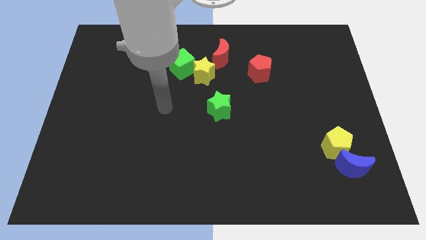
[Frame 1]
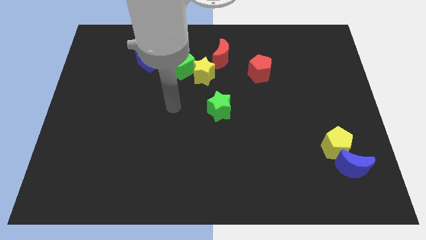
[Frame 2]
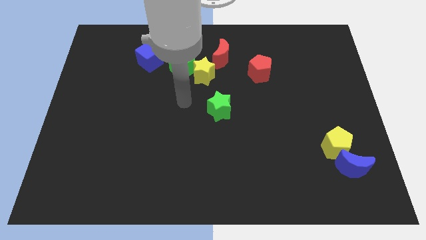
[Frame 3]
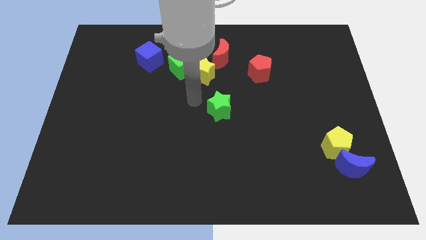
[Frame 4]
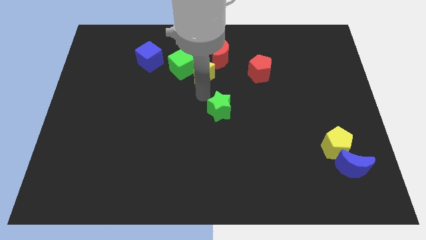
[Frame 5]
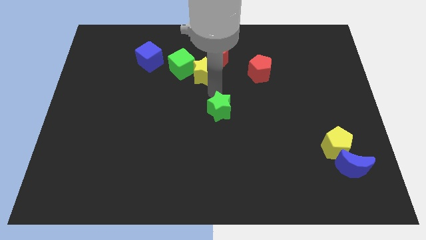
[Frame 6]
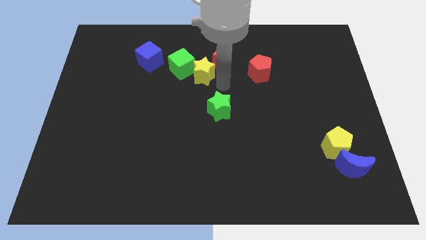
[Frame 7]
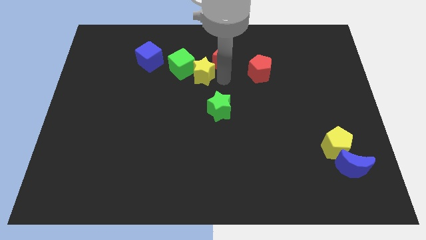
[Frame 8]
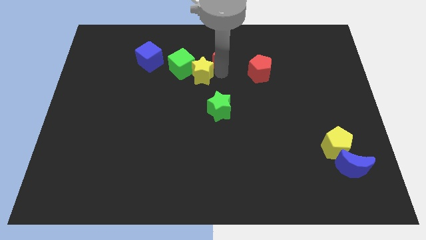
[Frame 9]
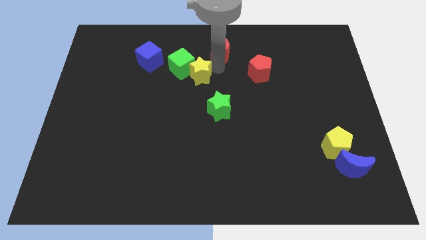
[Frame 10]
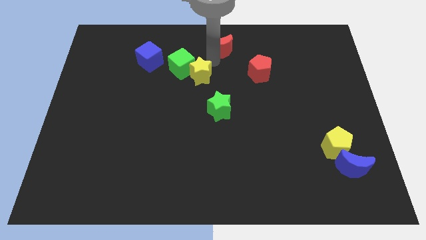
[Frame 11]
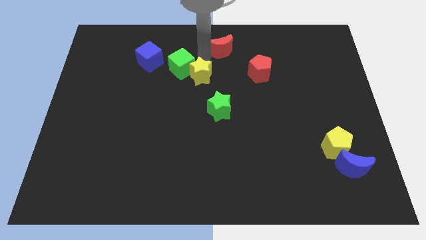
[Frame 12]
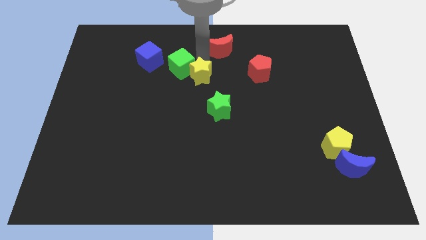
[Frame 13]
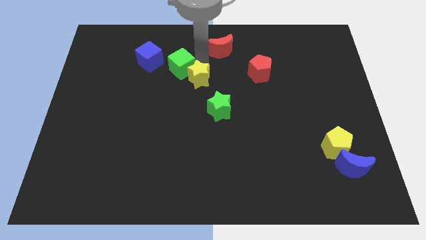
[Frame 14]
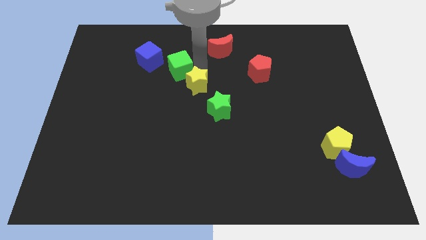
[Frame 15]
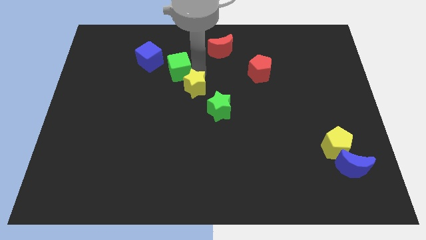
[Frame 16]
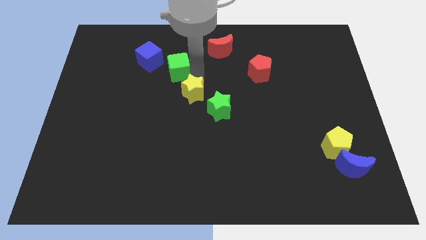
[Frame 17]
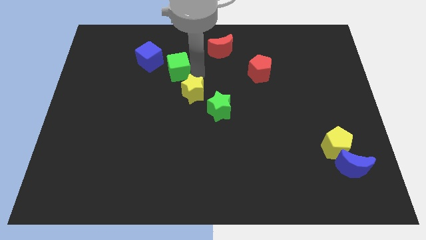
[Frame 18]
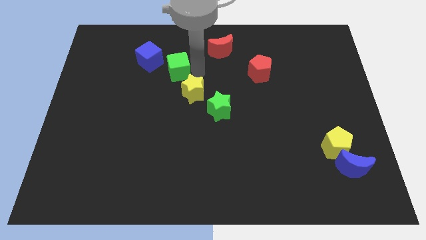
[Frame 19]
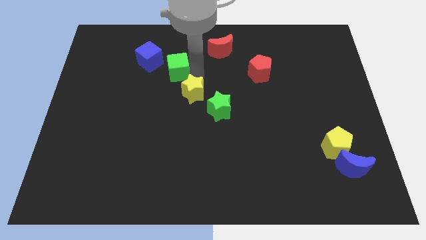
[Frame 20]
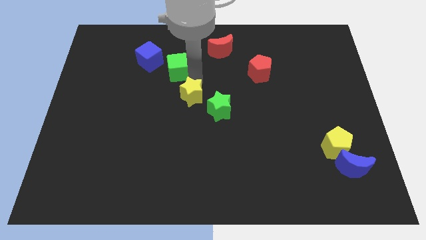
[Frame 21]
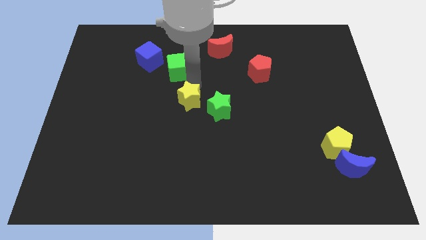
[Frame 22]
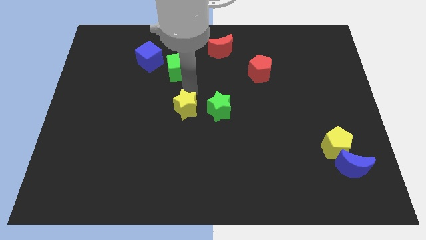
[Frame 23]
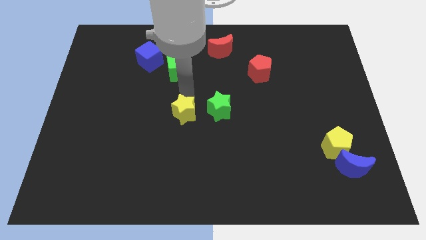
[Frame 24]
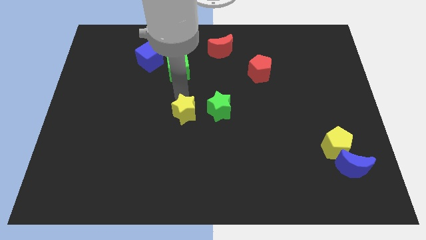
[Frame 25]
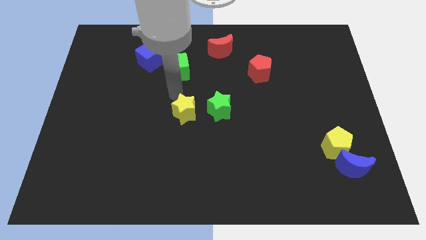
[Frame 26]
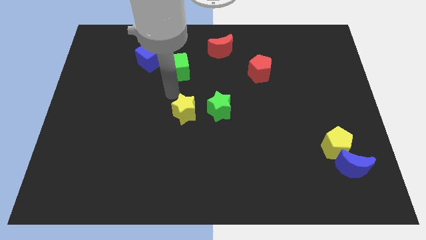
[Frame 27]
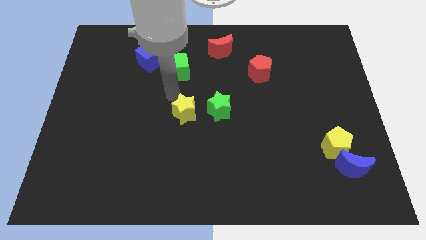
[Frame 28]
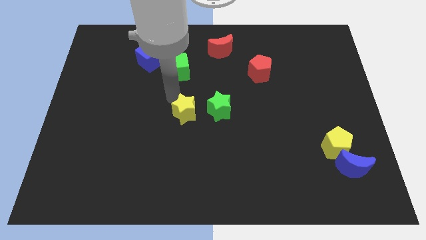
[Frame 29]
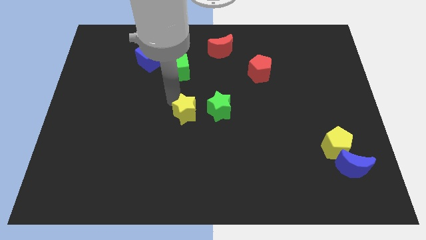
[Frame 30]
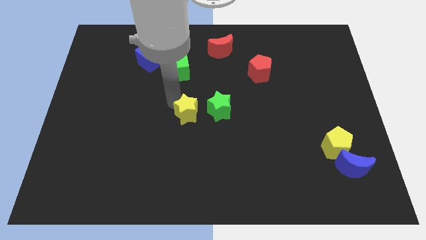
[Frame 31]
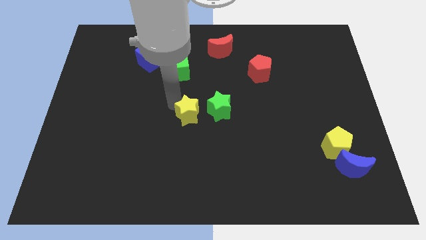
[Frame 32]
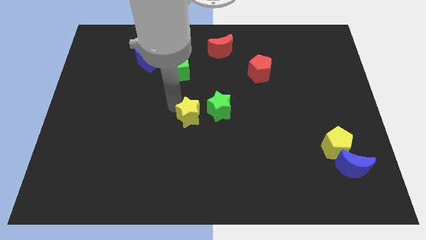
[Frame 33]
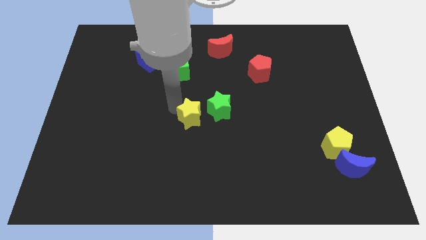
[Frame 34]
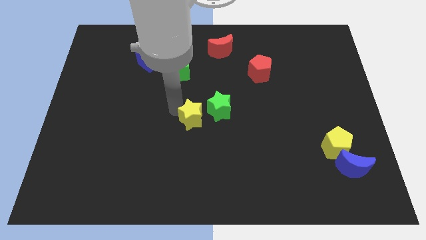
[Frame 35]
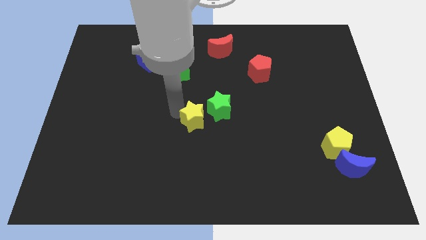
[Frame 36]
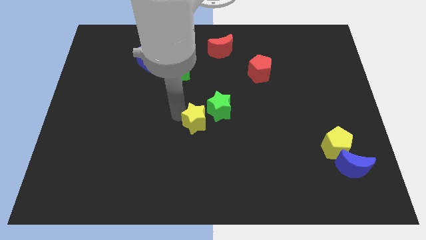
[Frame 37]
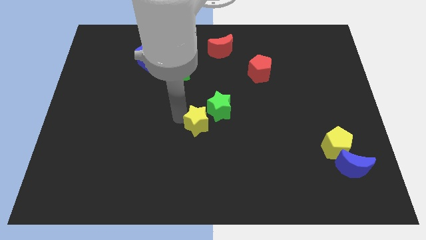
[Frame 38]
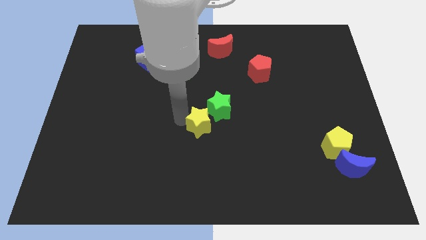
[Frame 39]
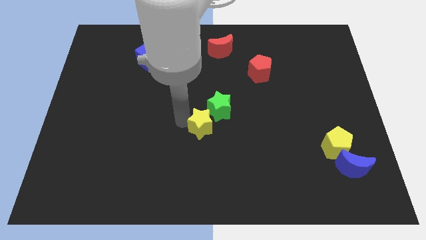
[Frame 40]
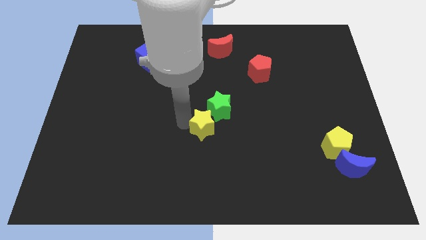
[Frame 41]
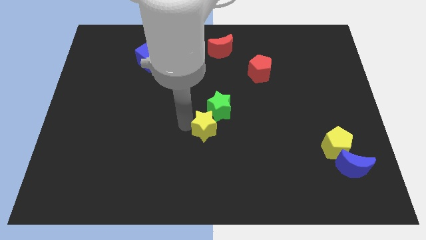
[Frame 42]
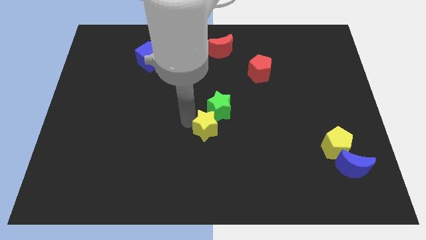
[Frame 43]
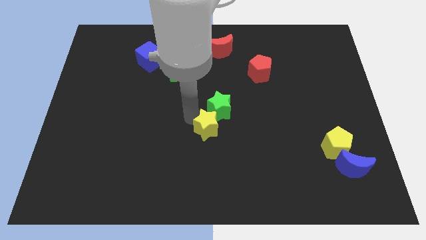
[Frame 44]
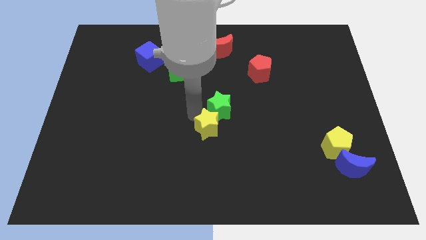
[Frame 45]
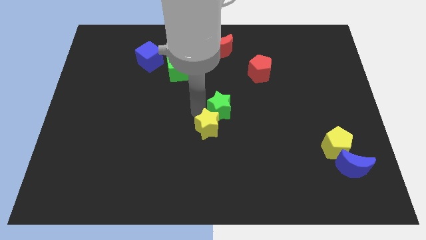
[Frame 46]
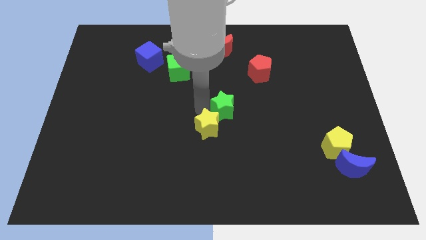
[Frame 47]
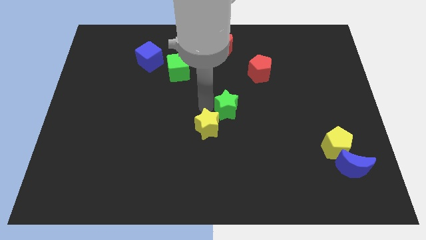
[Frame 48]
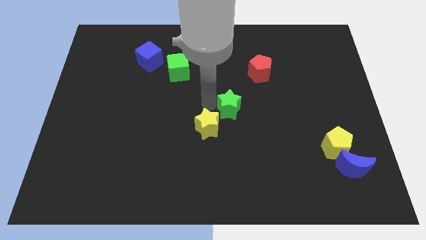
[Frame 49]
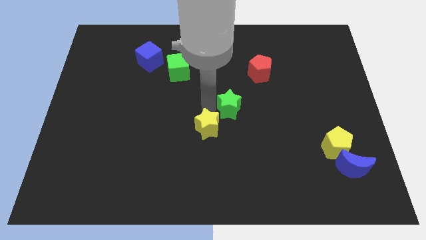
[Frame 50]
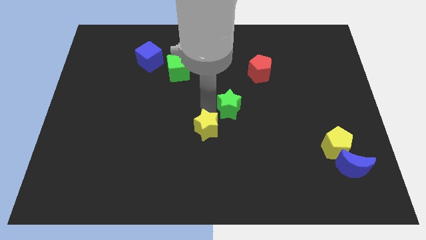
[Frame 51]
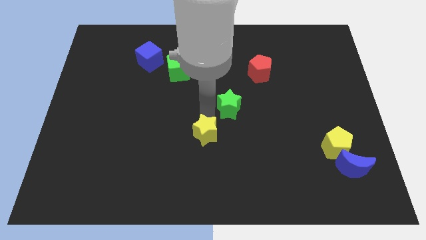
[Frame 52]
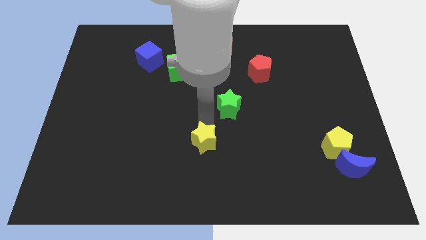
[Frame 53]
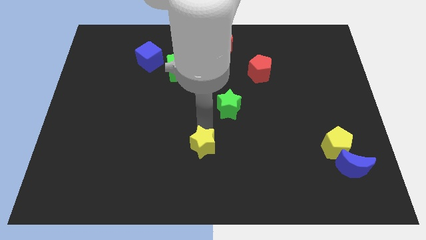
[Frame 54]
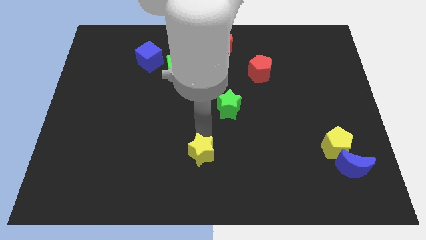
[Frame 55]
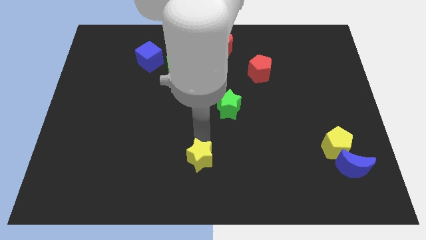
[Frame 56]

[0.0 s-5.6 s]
move the yellow star to the bottom side
